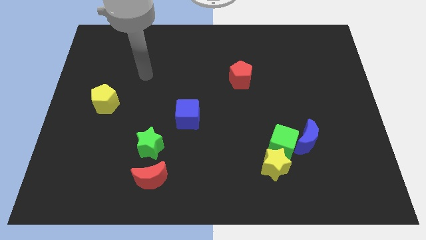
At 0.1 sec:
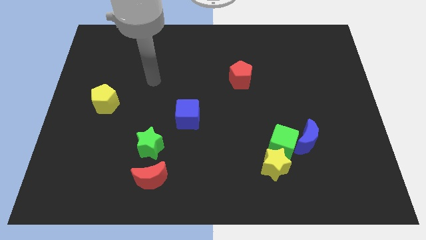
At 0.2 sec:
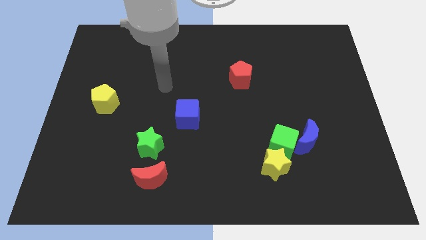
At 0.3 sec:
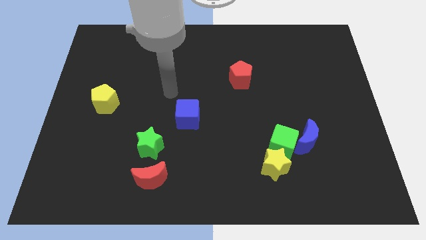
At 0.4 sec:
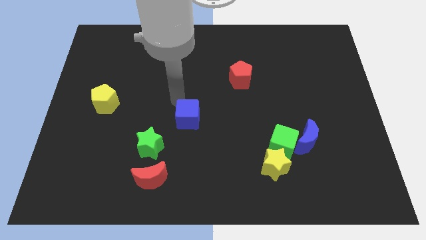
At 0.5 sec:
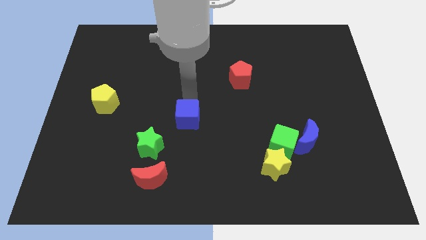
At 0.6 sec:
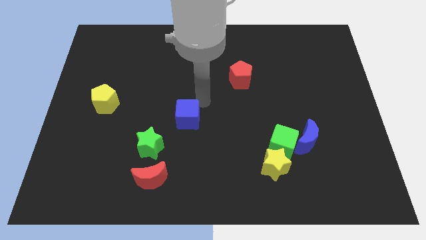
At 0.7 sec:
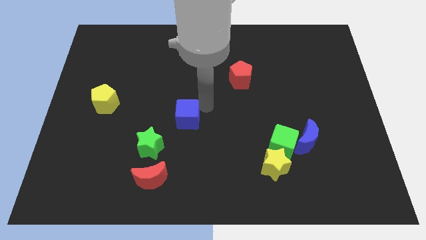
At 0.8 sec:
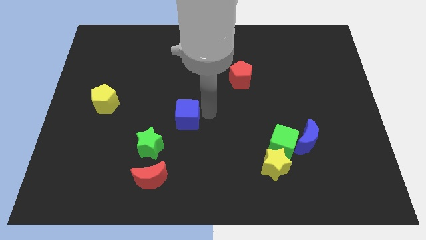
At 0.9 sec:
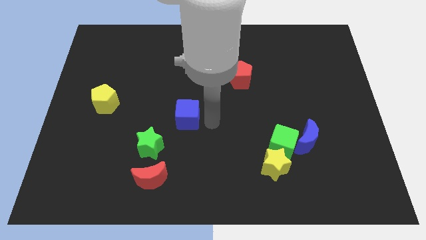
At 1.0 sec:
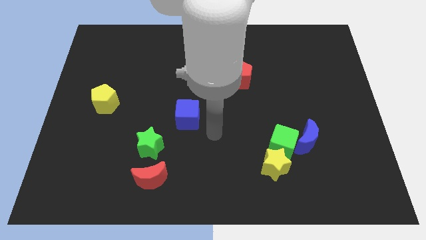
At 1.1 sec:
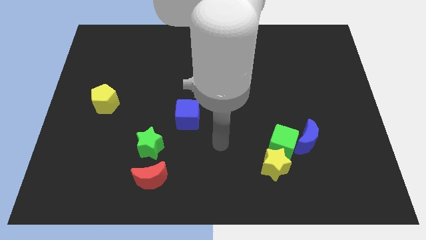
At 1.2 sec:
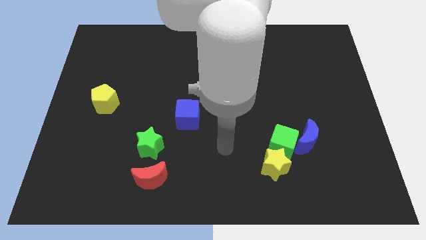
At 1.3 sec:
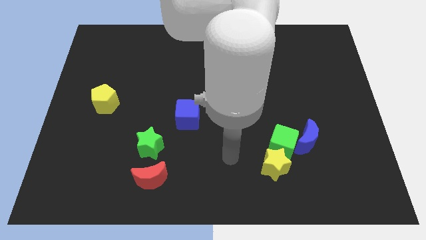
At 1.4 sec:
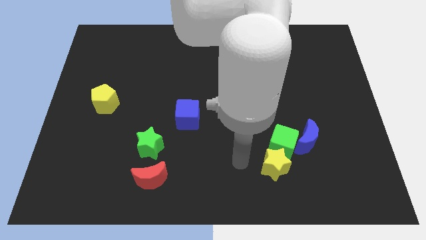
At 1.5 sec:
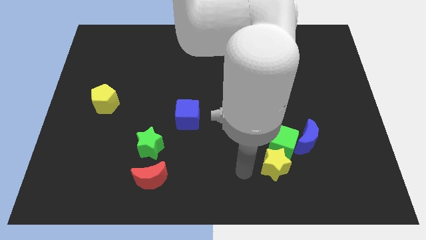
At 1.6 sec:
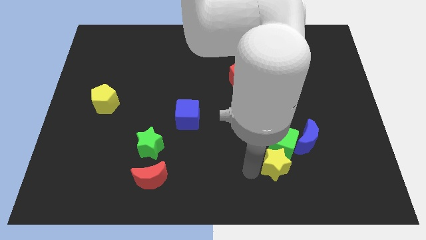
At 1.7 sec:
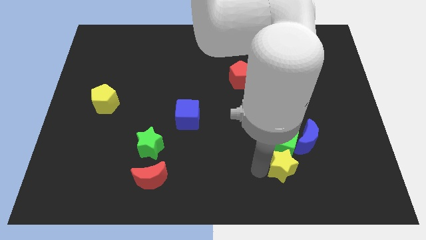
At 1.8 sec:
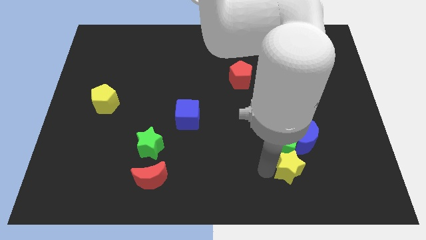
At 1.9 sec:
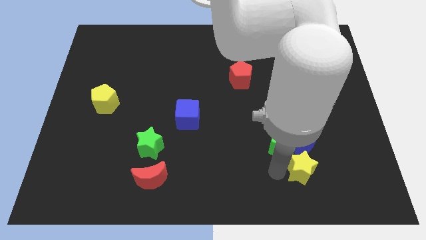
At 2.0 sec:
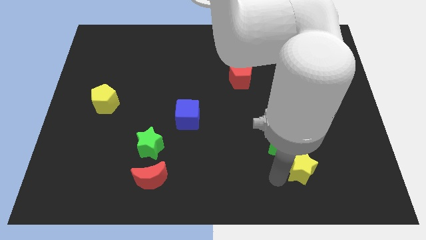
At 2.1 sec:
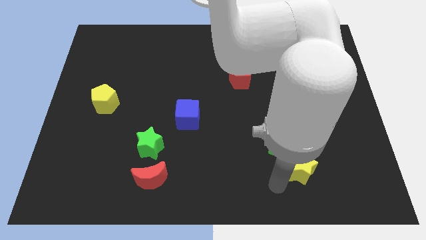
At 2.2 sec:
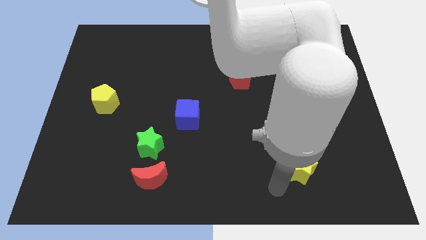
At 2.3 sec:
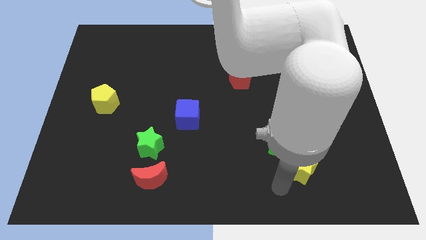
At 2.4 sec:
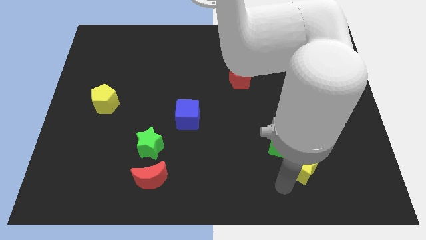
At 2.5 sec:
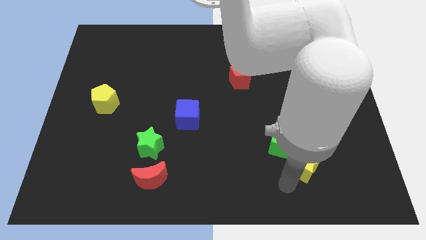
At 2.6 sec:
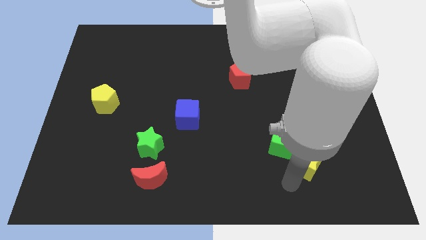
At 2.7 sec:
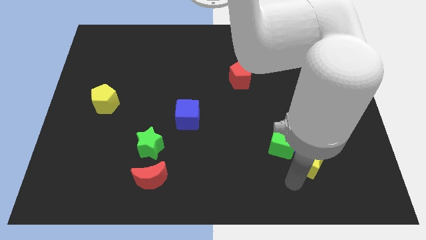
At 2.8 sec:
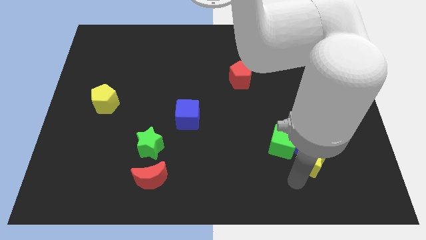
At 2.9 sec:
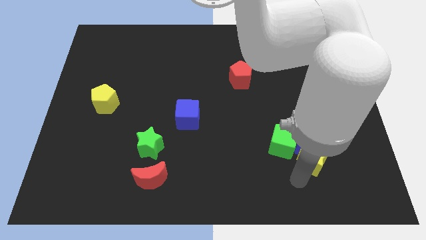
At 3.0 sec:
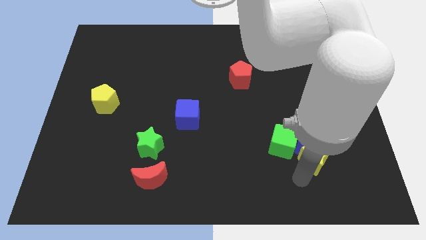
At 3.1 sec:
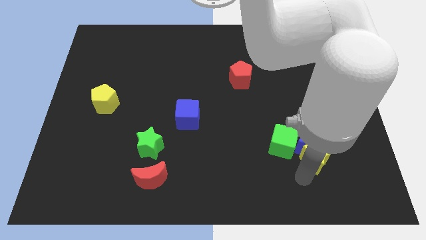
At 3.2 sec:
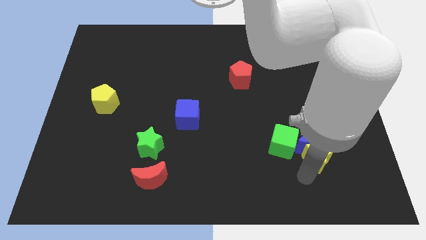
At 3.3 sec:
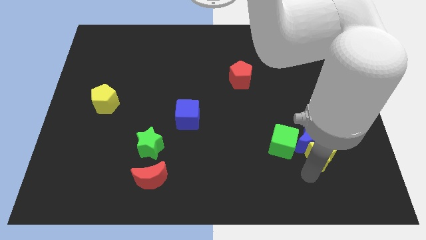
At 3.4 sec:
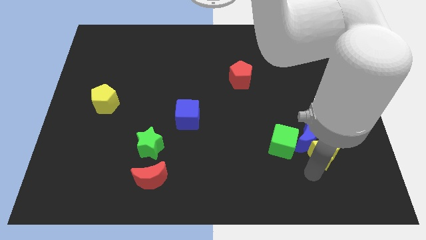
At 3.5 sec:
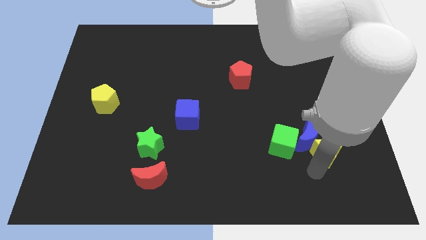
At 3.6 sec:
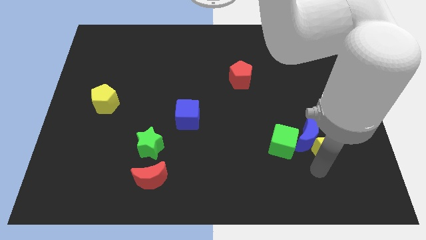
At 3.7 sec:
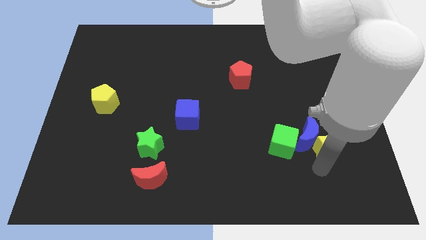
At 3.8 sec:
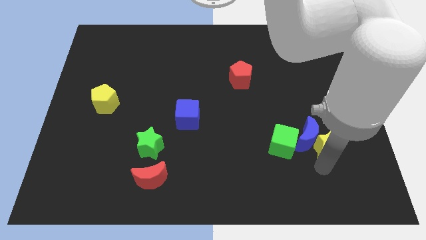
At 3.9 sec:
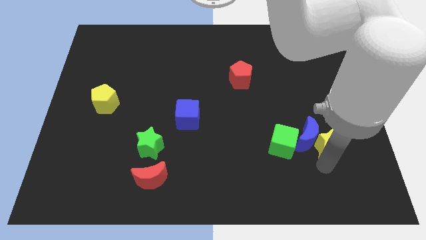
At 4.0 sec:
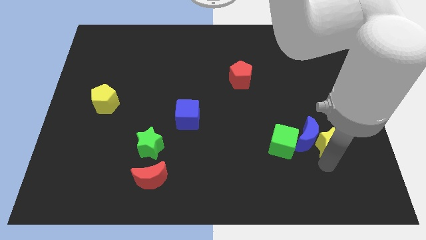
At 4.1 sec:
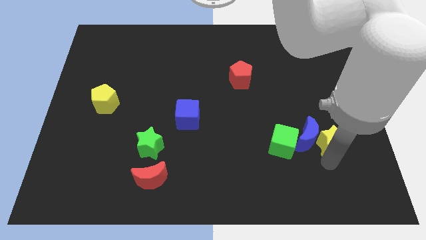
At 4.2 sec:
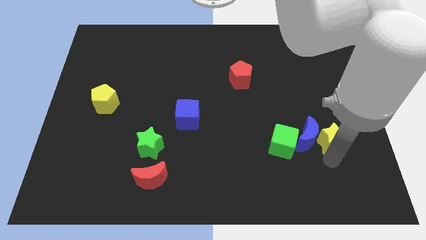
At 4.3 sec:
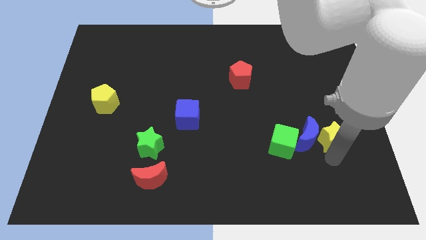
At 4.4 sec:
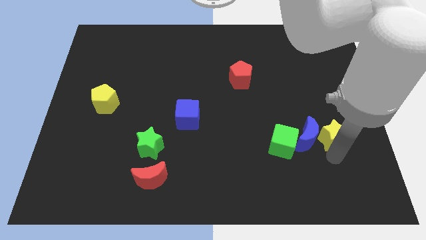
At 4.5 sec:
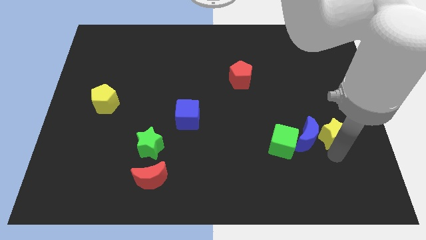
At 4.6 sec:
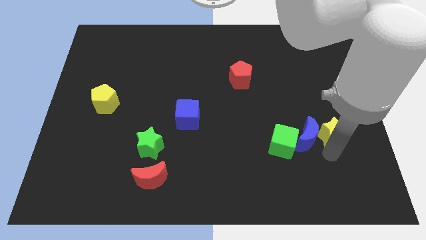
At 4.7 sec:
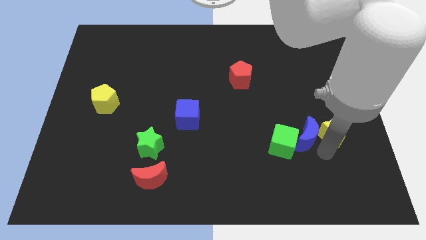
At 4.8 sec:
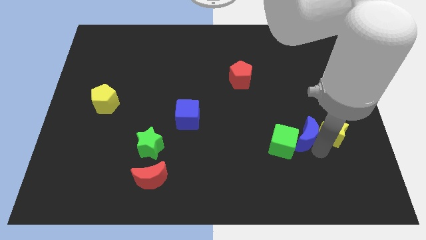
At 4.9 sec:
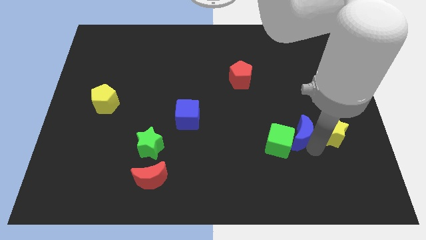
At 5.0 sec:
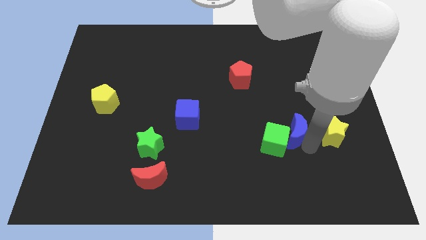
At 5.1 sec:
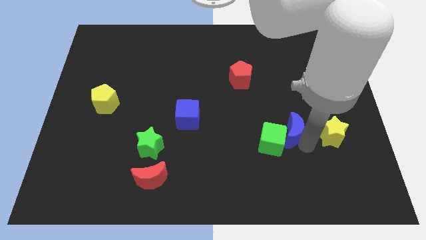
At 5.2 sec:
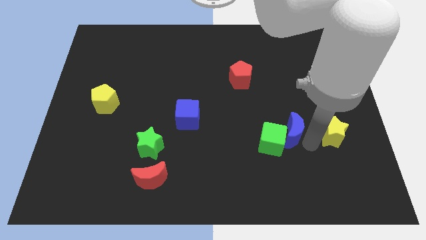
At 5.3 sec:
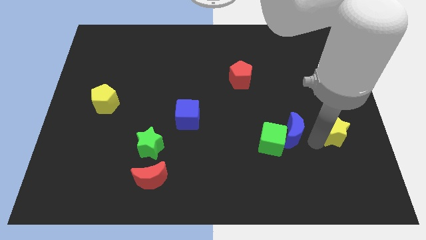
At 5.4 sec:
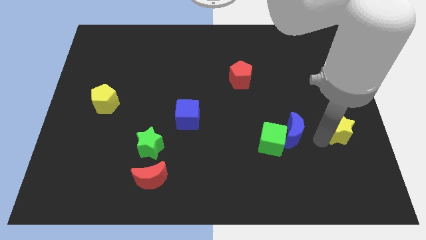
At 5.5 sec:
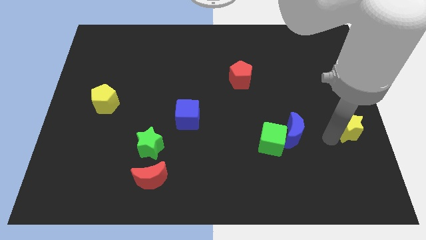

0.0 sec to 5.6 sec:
move the yellow star to the right side of the board
